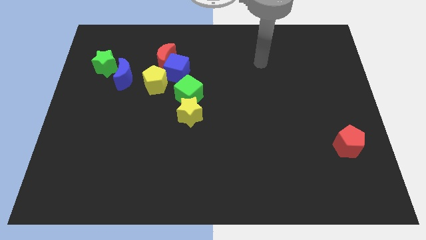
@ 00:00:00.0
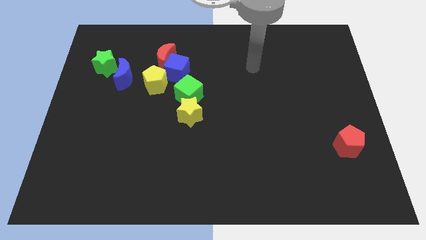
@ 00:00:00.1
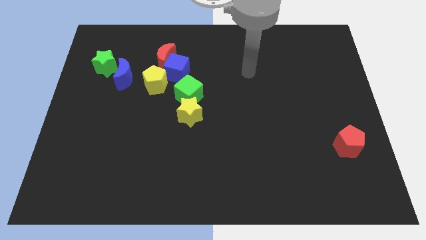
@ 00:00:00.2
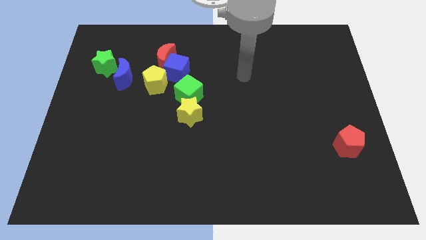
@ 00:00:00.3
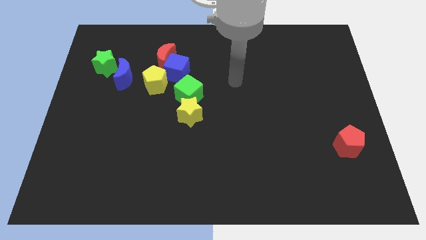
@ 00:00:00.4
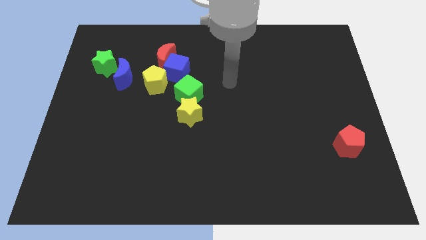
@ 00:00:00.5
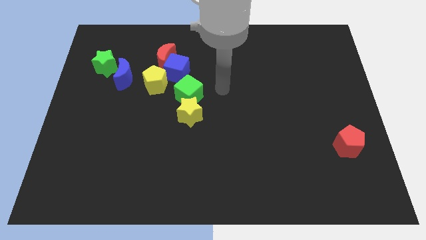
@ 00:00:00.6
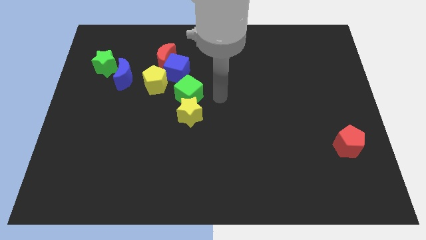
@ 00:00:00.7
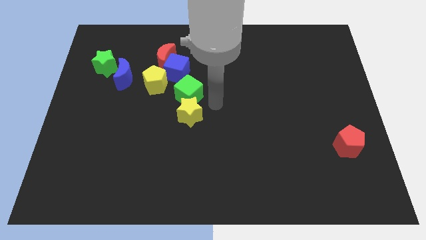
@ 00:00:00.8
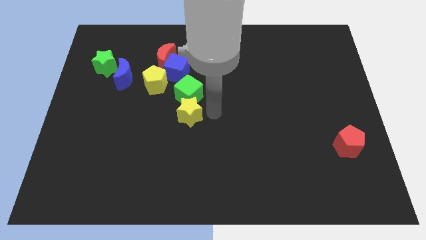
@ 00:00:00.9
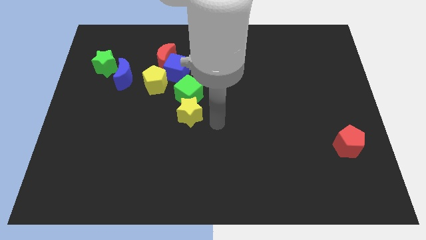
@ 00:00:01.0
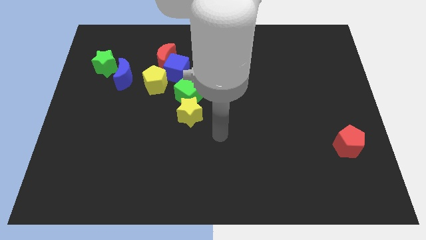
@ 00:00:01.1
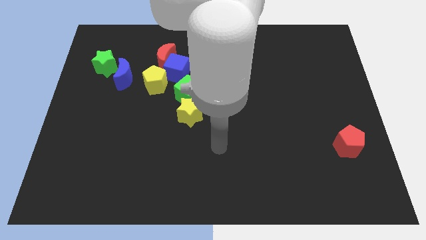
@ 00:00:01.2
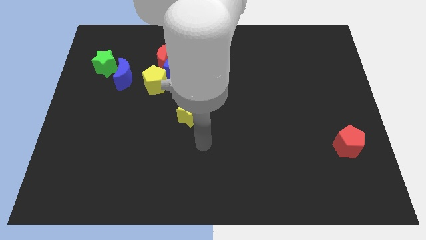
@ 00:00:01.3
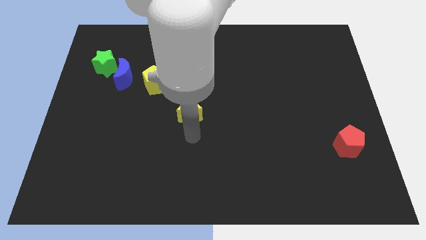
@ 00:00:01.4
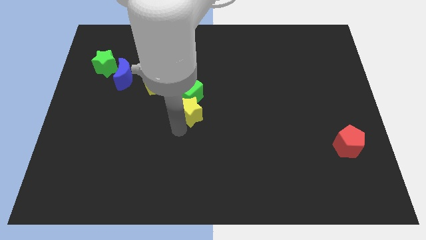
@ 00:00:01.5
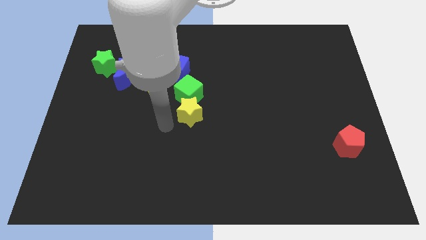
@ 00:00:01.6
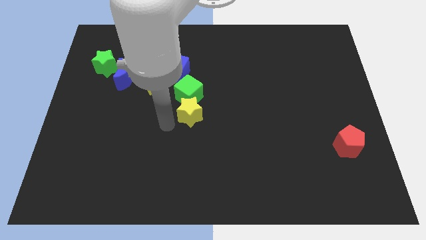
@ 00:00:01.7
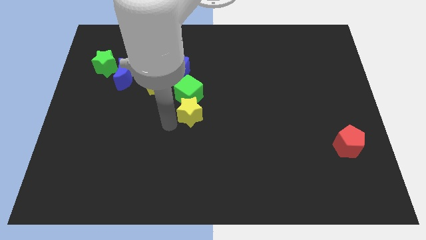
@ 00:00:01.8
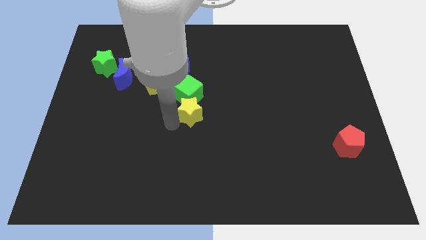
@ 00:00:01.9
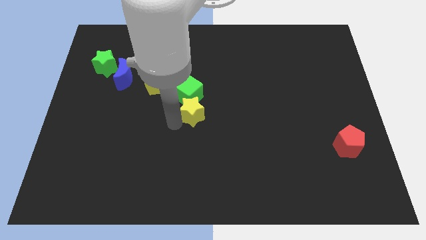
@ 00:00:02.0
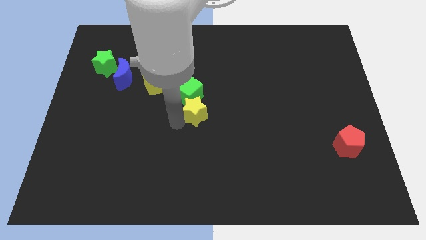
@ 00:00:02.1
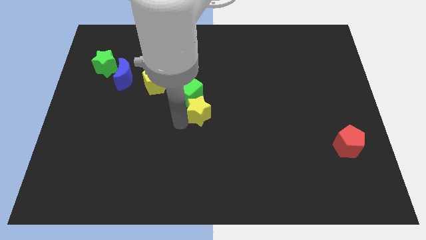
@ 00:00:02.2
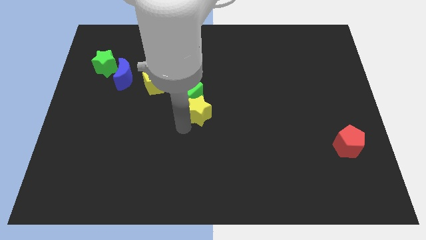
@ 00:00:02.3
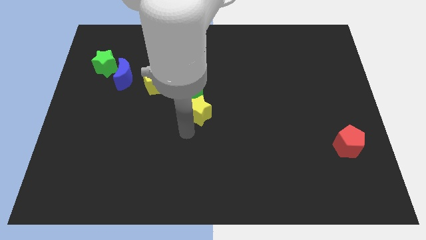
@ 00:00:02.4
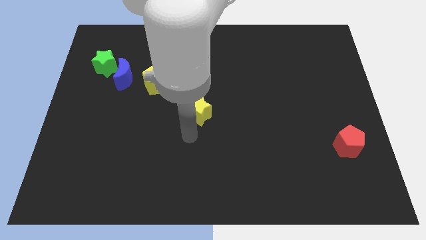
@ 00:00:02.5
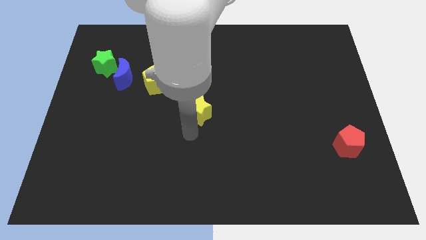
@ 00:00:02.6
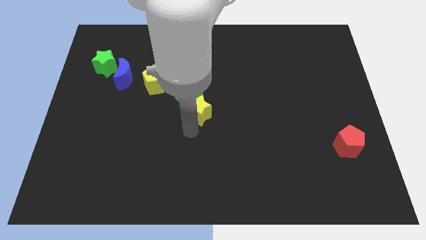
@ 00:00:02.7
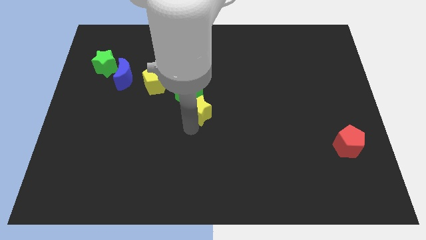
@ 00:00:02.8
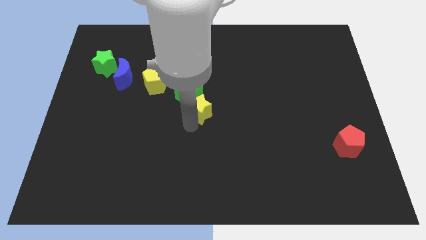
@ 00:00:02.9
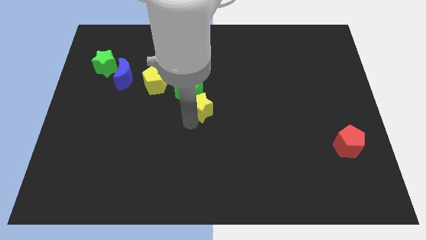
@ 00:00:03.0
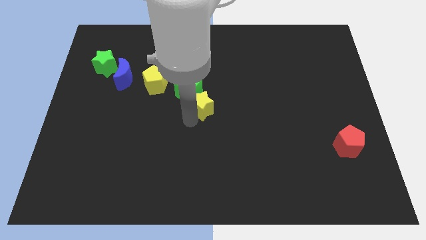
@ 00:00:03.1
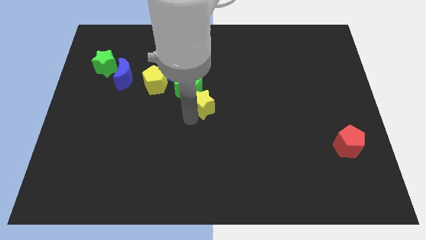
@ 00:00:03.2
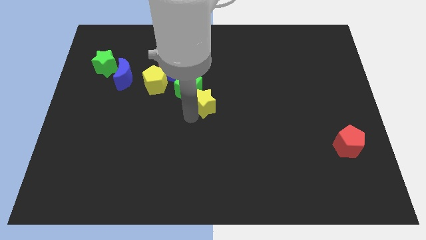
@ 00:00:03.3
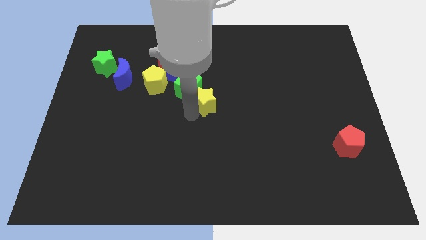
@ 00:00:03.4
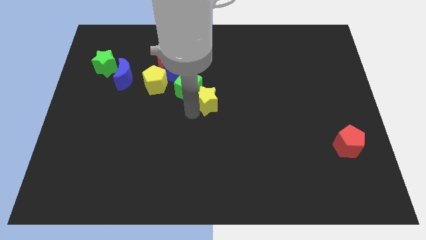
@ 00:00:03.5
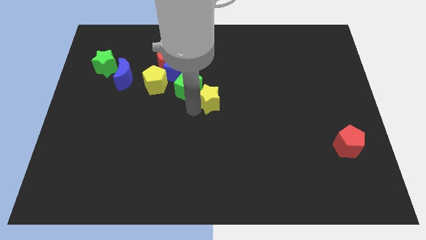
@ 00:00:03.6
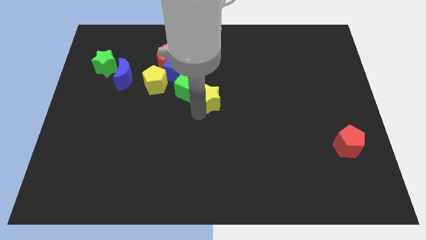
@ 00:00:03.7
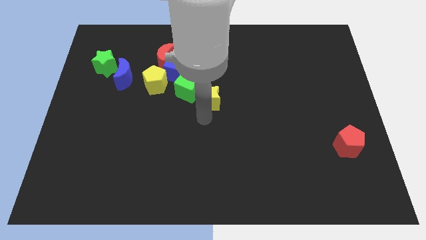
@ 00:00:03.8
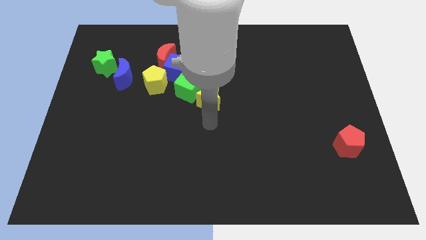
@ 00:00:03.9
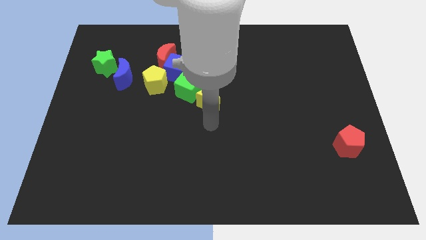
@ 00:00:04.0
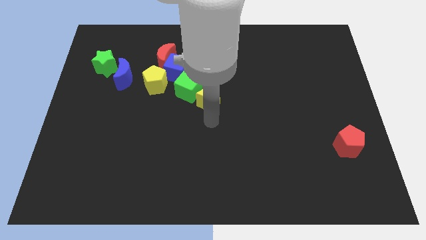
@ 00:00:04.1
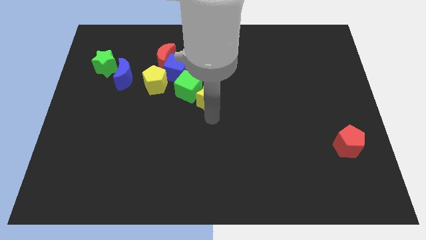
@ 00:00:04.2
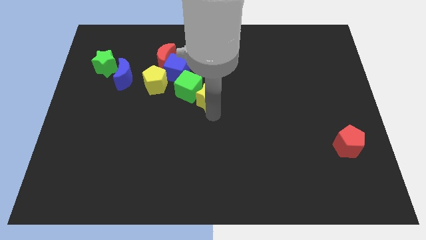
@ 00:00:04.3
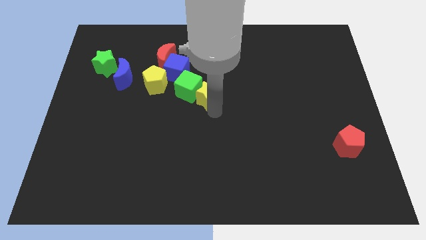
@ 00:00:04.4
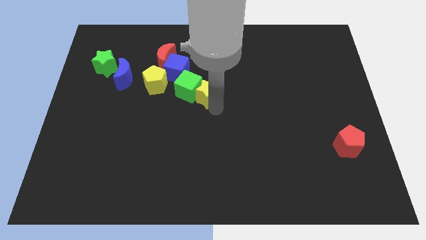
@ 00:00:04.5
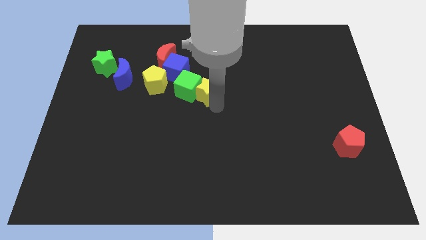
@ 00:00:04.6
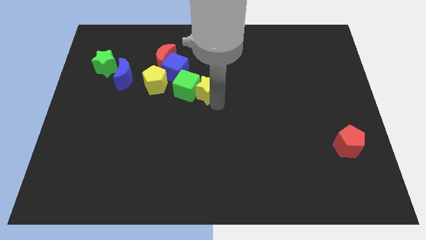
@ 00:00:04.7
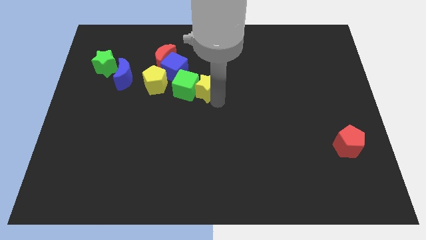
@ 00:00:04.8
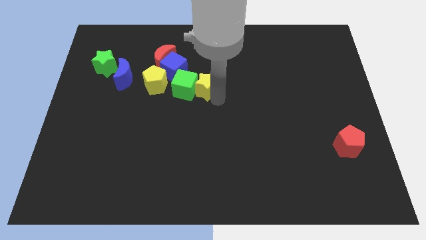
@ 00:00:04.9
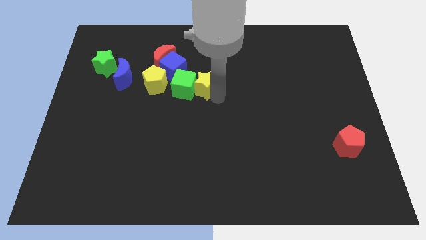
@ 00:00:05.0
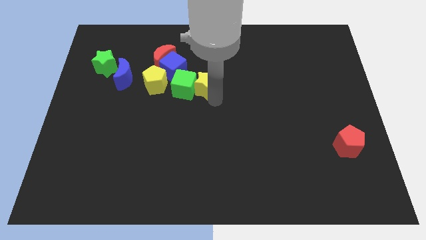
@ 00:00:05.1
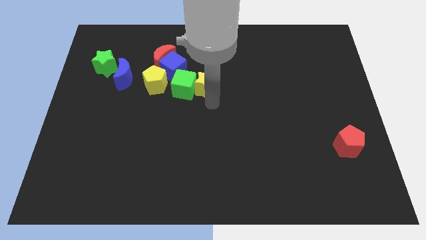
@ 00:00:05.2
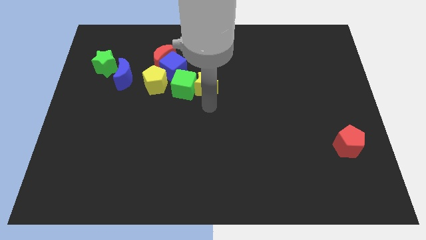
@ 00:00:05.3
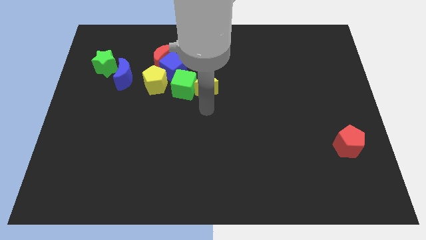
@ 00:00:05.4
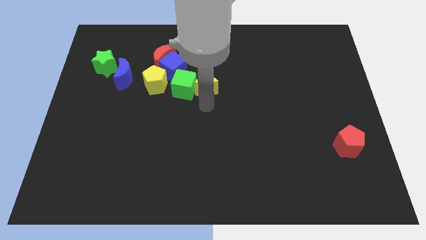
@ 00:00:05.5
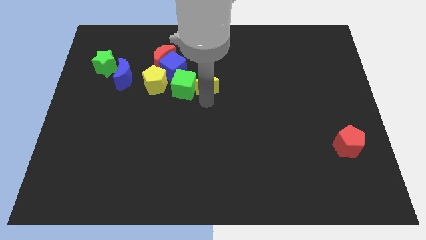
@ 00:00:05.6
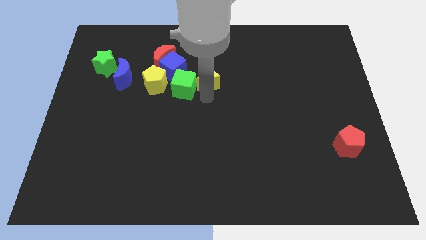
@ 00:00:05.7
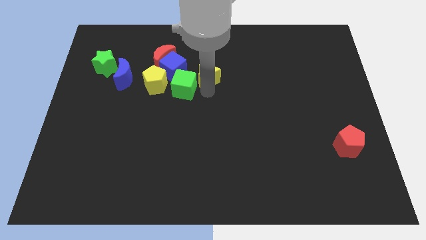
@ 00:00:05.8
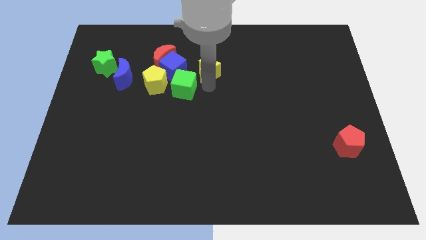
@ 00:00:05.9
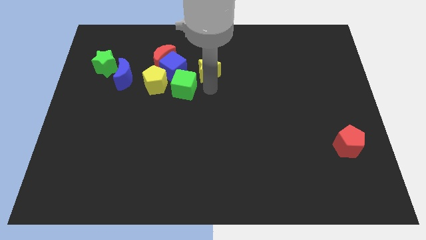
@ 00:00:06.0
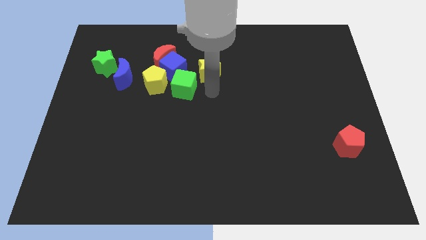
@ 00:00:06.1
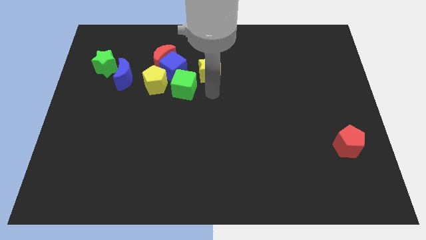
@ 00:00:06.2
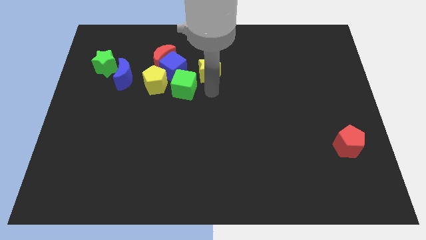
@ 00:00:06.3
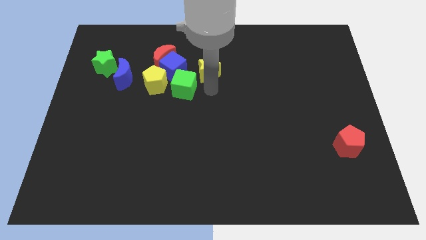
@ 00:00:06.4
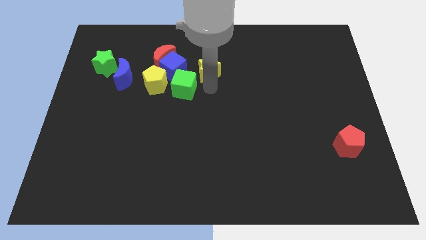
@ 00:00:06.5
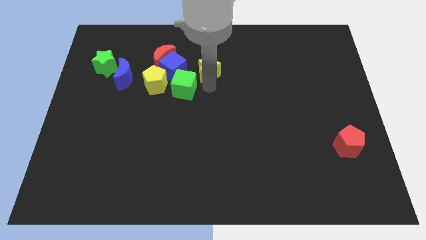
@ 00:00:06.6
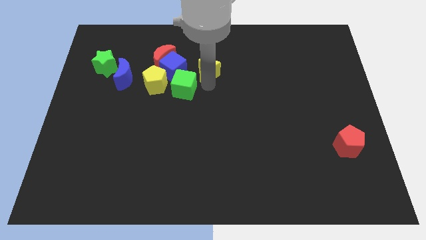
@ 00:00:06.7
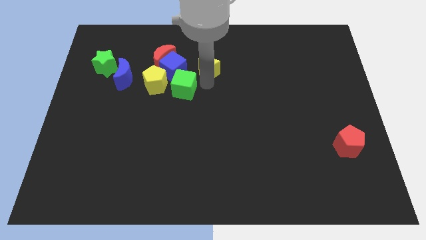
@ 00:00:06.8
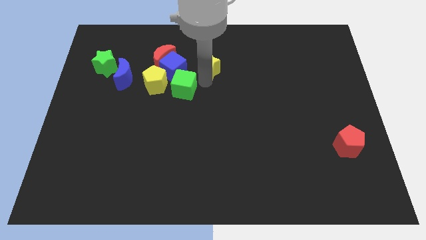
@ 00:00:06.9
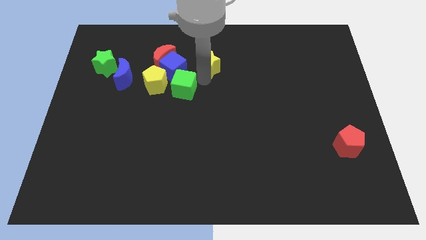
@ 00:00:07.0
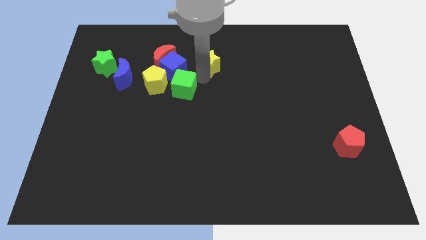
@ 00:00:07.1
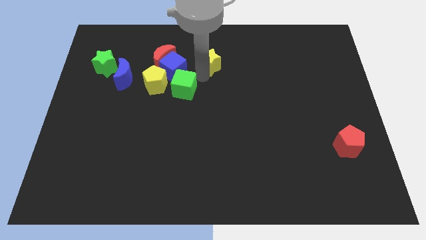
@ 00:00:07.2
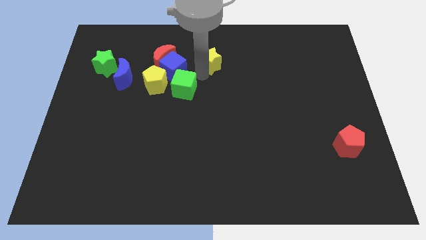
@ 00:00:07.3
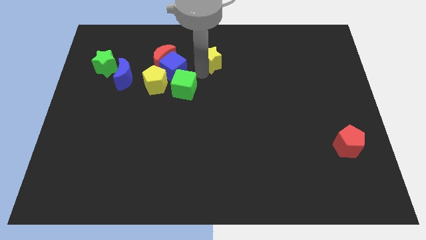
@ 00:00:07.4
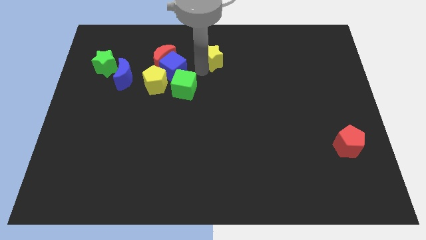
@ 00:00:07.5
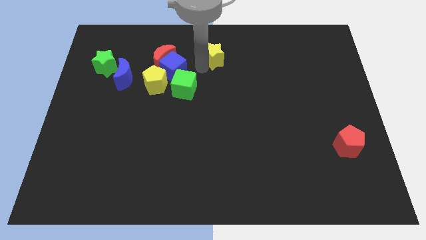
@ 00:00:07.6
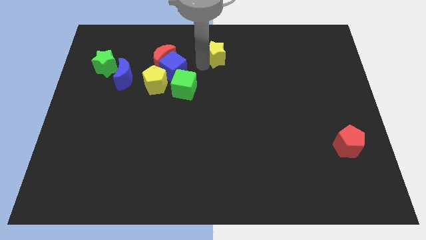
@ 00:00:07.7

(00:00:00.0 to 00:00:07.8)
put the yellow star to the top side
